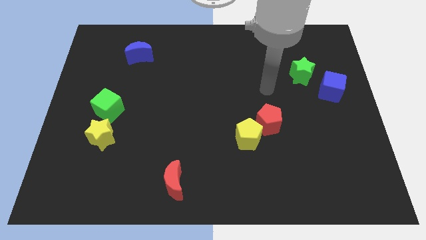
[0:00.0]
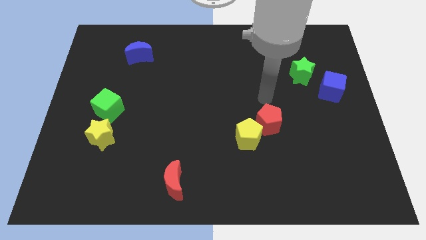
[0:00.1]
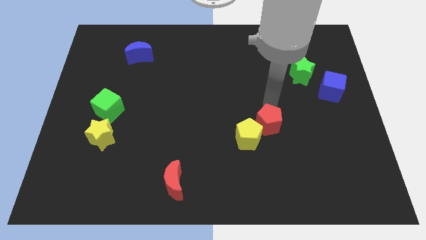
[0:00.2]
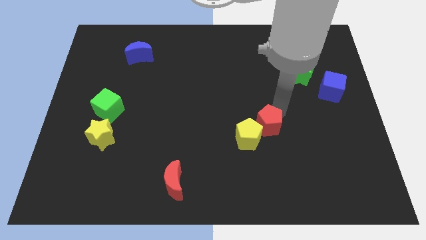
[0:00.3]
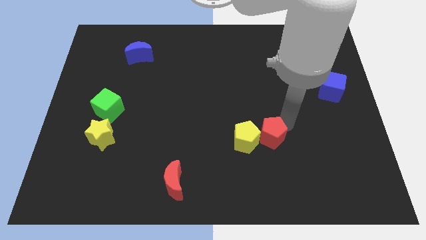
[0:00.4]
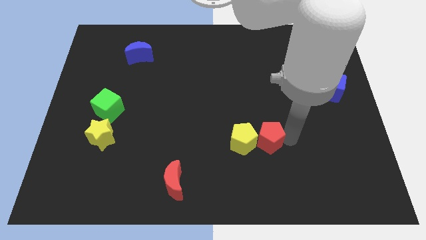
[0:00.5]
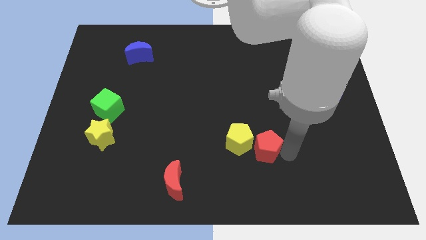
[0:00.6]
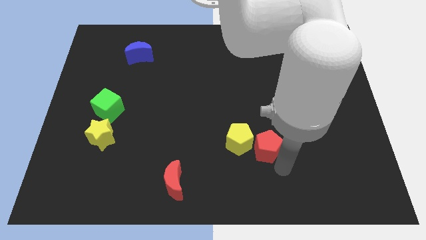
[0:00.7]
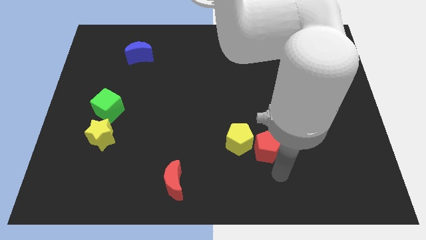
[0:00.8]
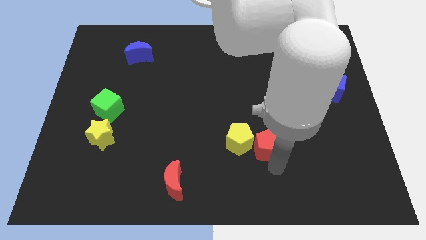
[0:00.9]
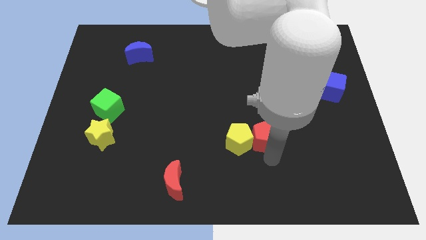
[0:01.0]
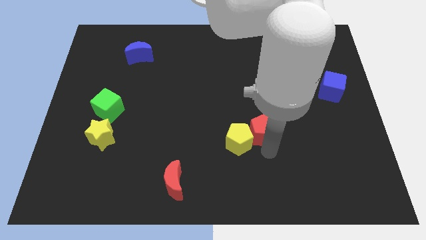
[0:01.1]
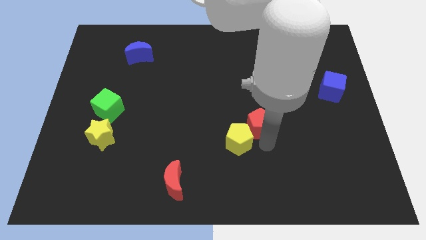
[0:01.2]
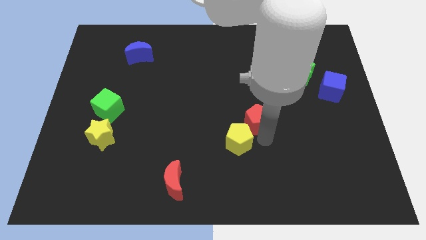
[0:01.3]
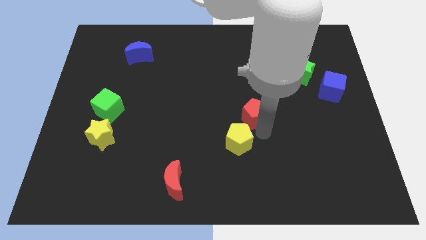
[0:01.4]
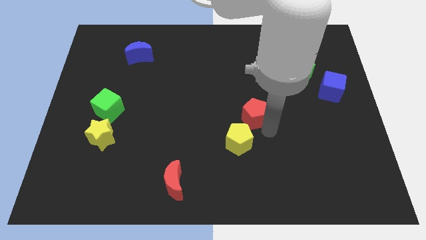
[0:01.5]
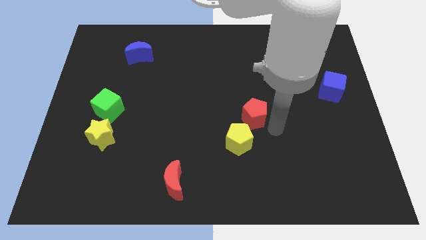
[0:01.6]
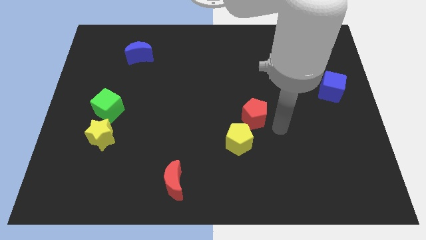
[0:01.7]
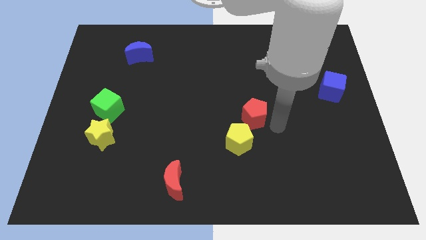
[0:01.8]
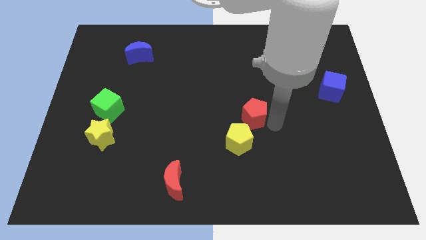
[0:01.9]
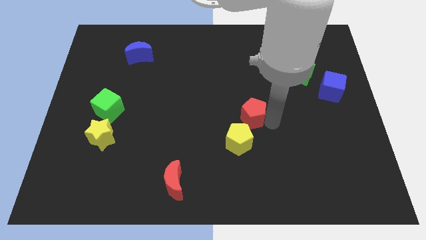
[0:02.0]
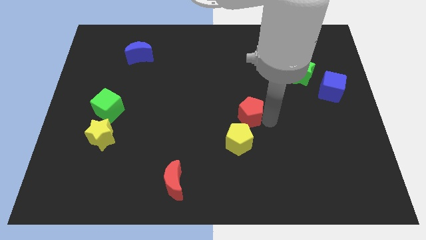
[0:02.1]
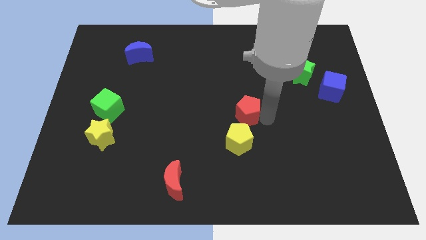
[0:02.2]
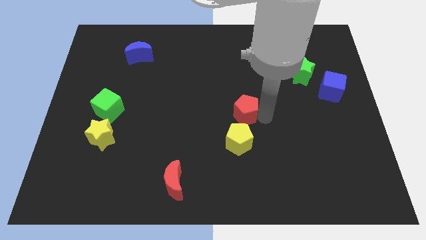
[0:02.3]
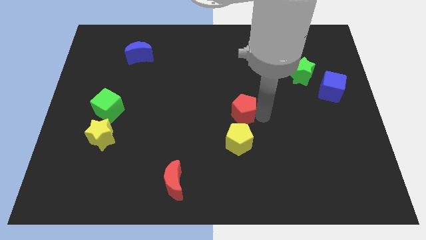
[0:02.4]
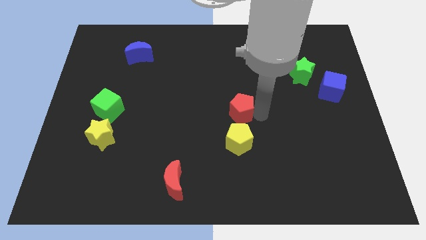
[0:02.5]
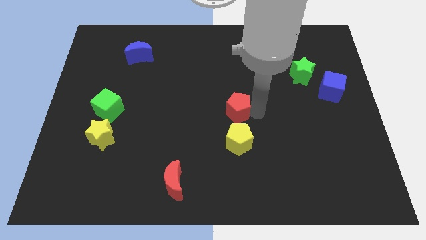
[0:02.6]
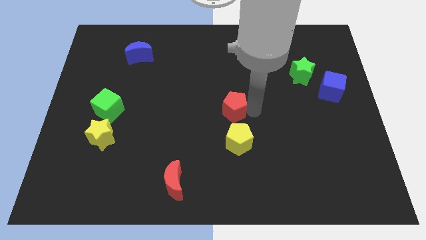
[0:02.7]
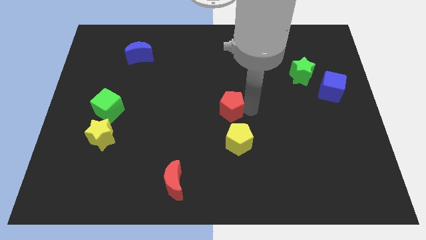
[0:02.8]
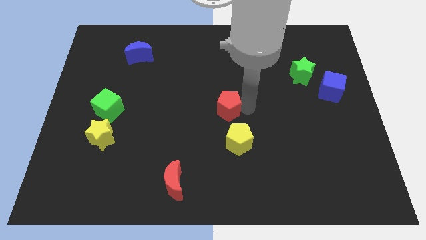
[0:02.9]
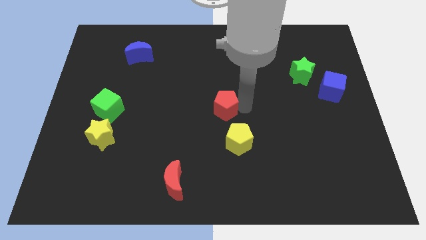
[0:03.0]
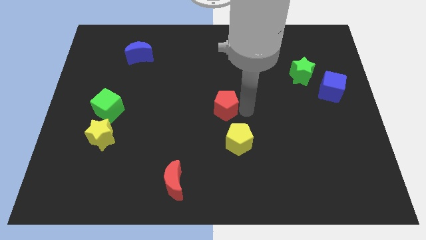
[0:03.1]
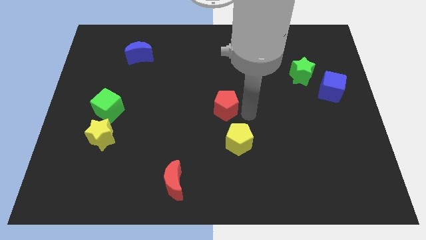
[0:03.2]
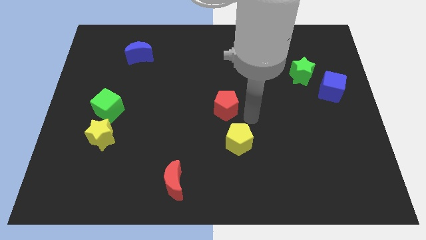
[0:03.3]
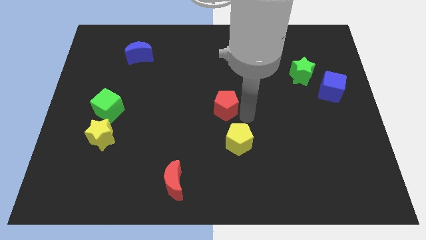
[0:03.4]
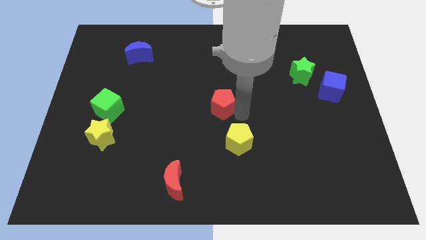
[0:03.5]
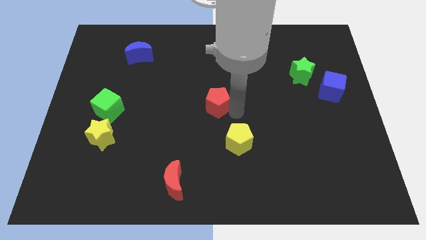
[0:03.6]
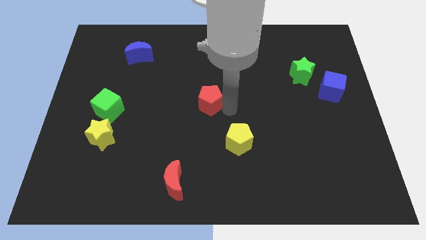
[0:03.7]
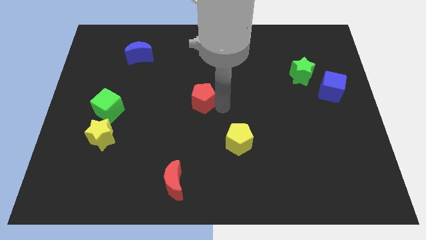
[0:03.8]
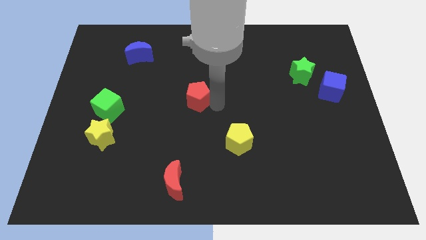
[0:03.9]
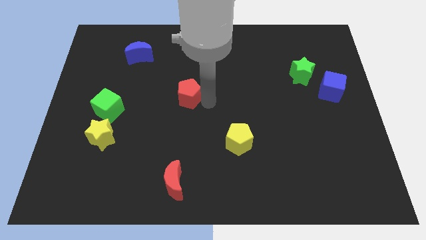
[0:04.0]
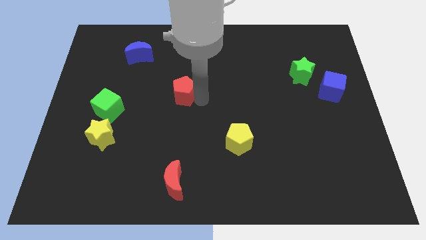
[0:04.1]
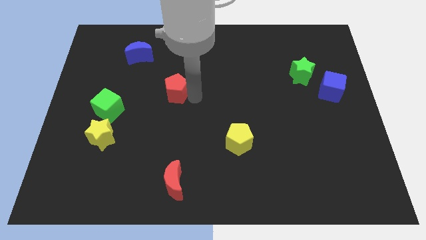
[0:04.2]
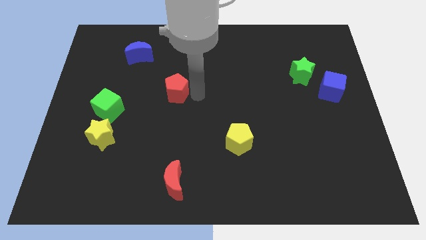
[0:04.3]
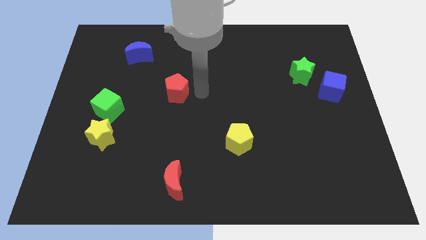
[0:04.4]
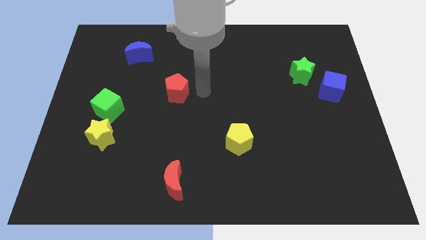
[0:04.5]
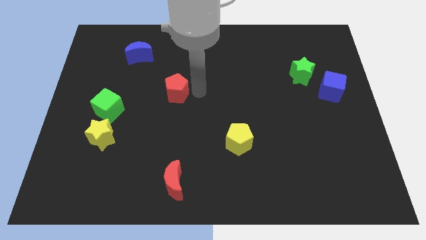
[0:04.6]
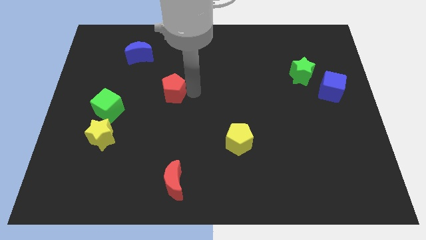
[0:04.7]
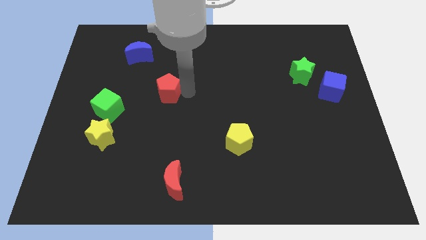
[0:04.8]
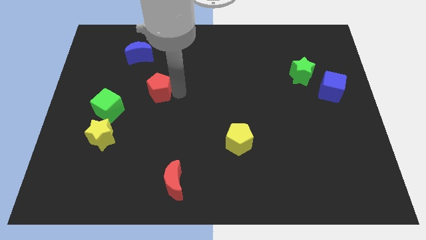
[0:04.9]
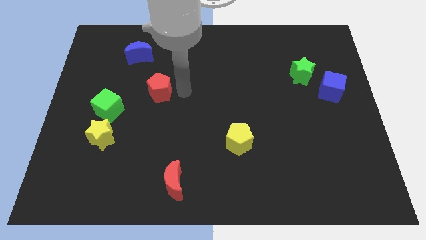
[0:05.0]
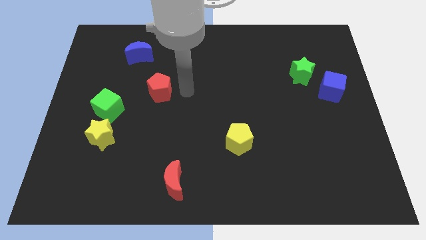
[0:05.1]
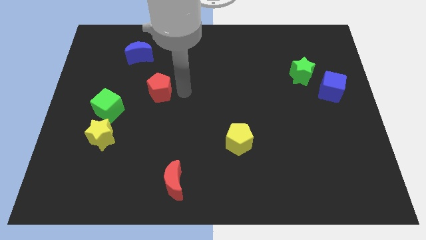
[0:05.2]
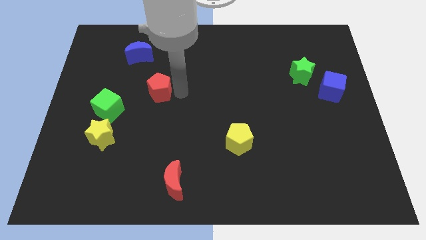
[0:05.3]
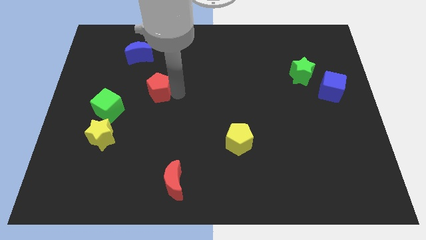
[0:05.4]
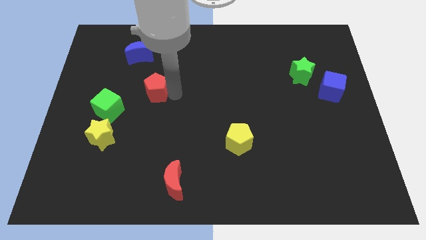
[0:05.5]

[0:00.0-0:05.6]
slide the red pentagon to the top right of the green cube

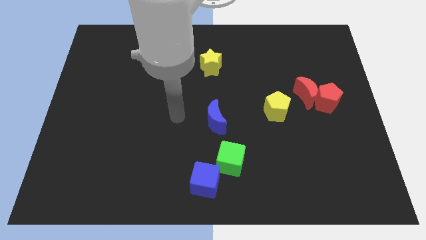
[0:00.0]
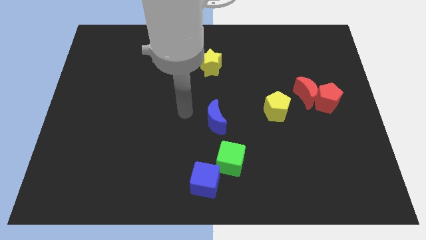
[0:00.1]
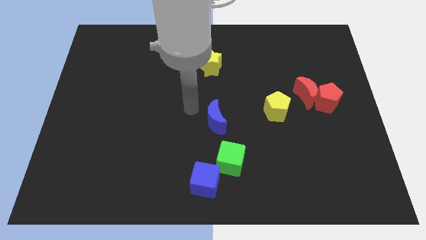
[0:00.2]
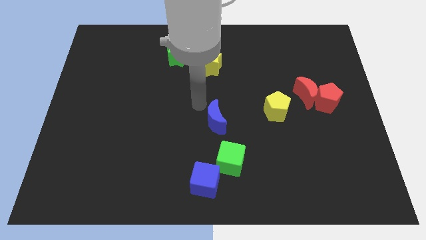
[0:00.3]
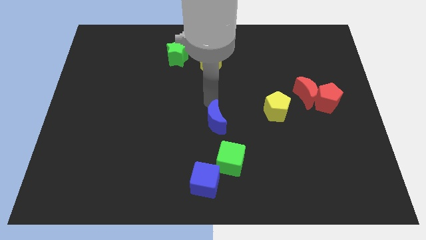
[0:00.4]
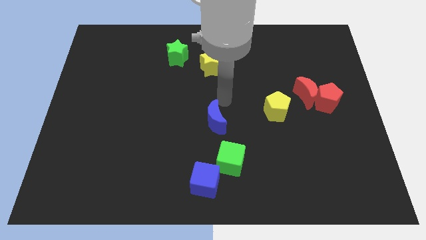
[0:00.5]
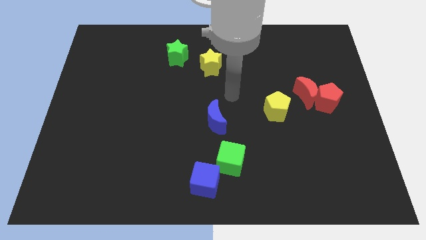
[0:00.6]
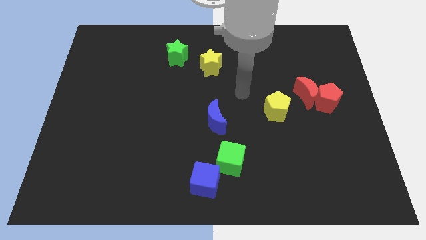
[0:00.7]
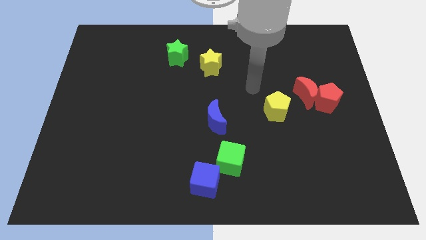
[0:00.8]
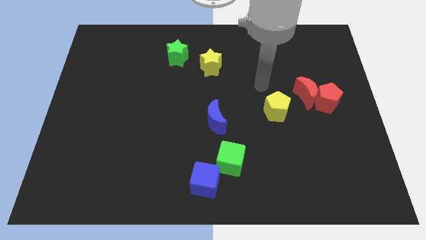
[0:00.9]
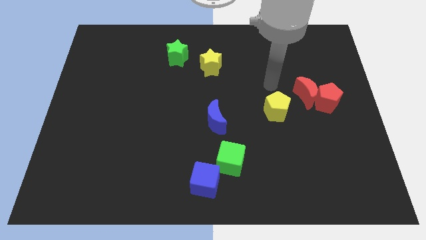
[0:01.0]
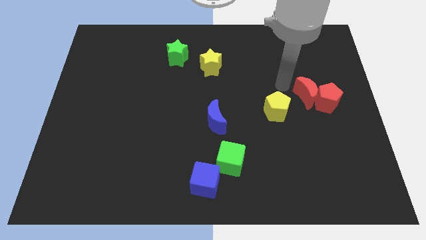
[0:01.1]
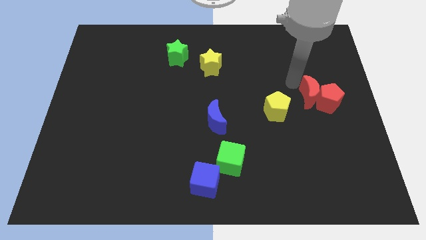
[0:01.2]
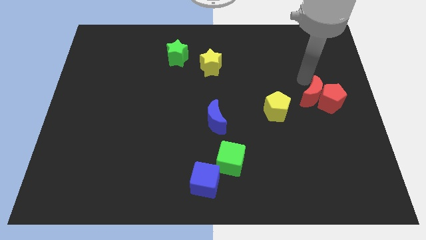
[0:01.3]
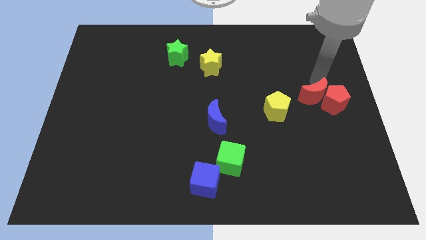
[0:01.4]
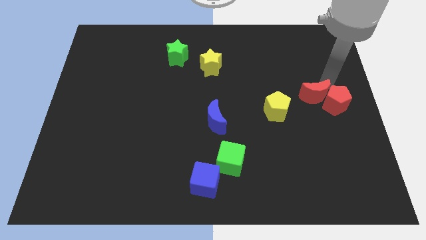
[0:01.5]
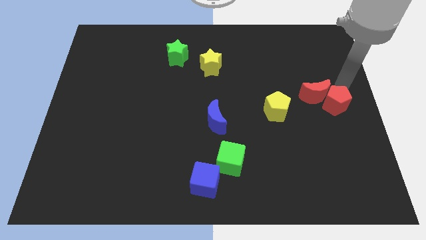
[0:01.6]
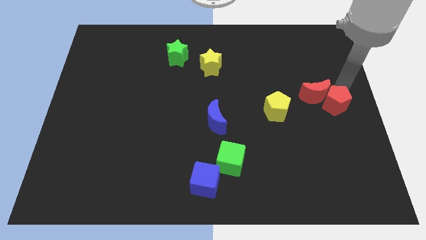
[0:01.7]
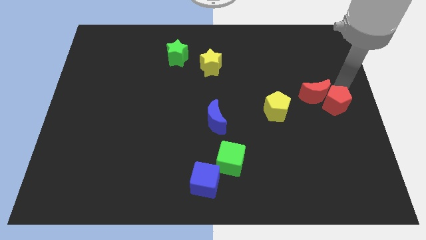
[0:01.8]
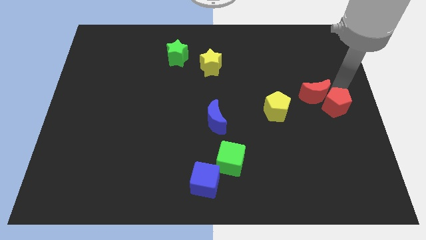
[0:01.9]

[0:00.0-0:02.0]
push the red pentagon below the red moon
